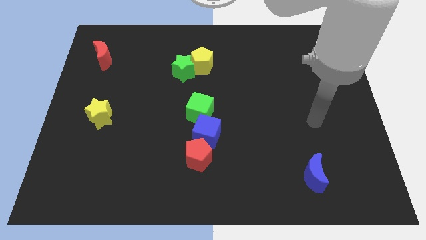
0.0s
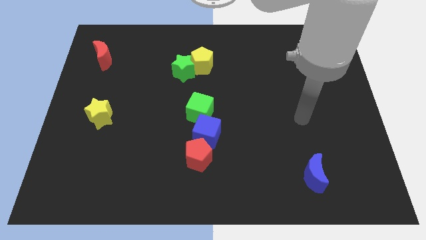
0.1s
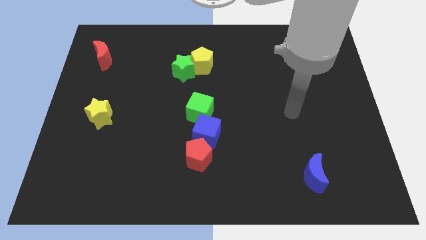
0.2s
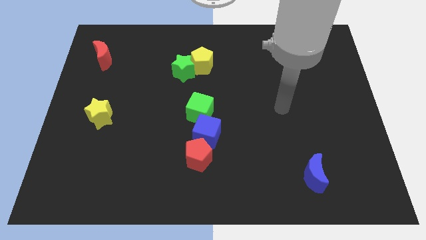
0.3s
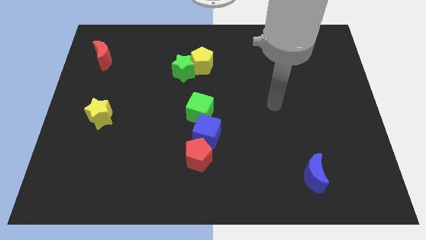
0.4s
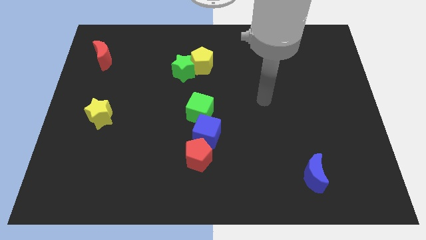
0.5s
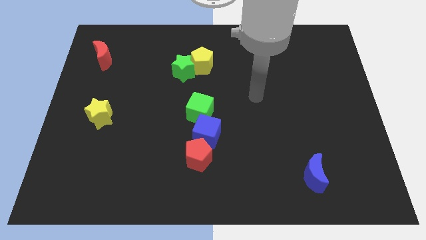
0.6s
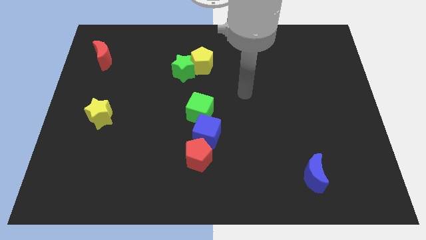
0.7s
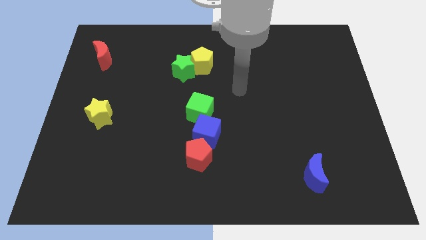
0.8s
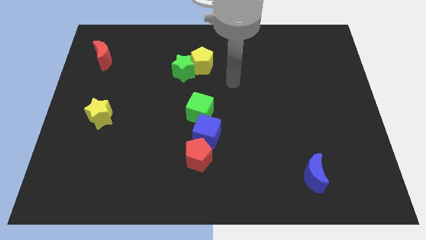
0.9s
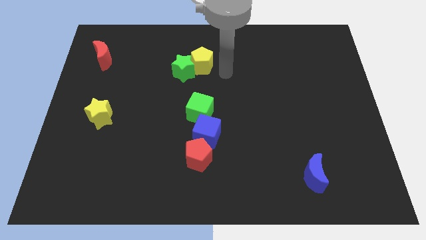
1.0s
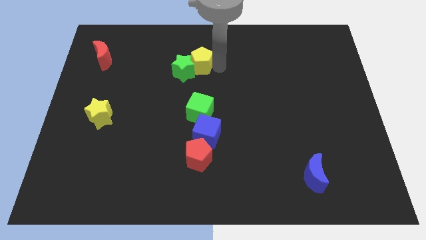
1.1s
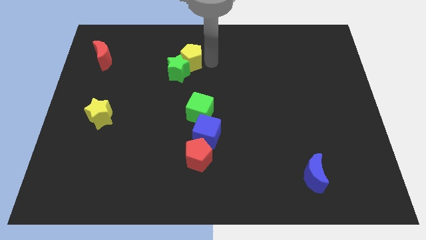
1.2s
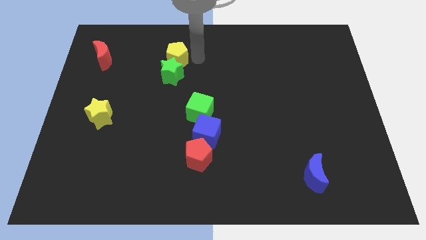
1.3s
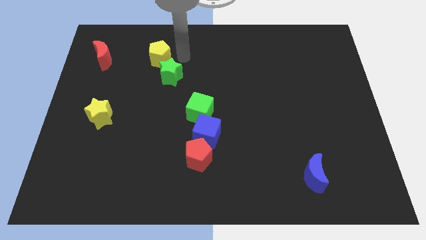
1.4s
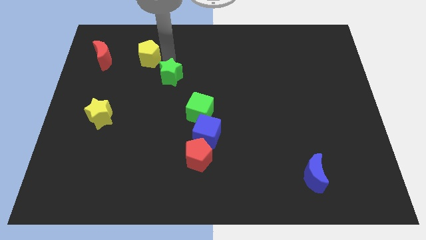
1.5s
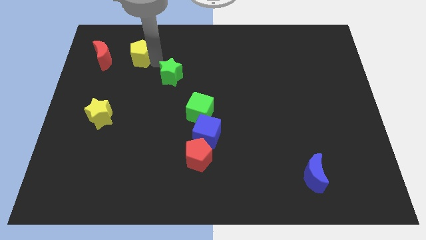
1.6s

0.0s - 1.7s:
separate the green star from the yellow pentagon

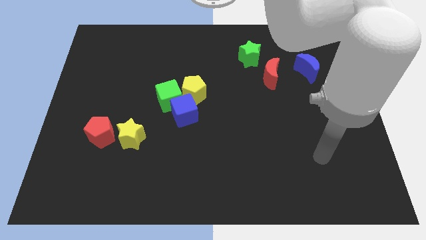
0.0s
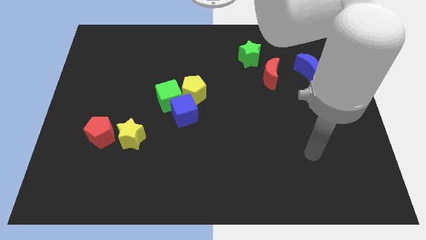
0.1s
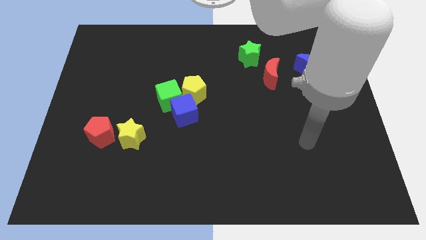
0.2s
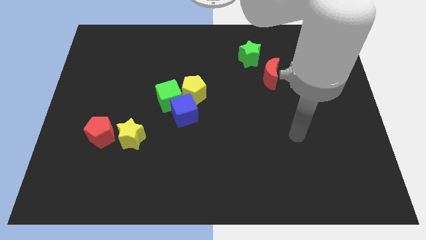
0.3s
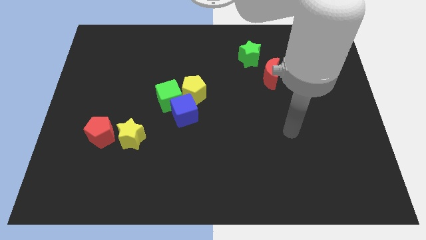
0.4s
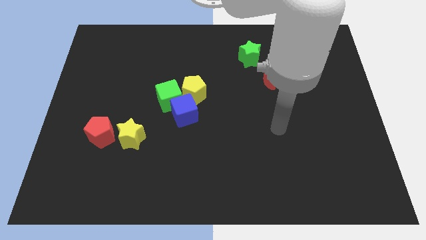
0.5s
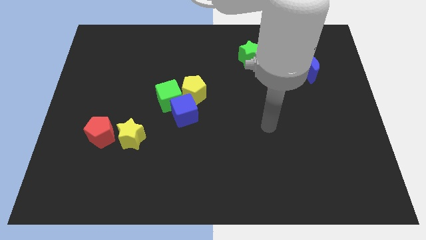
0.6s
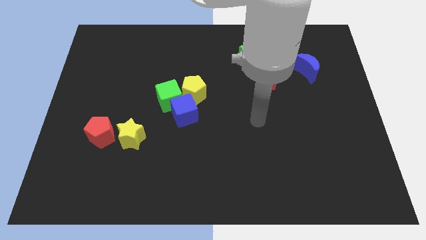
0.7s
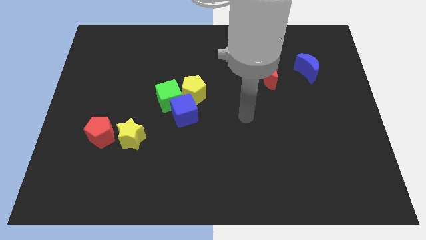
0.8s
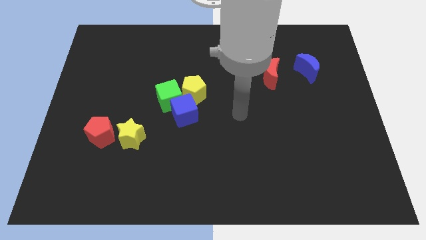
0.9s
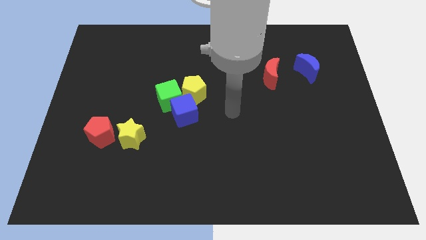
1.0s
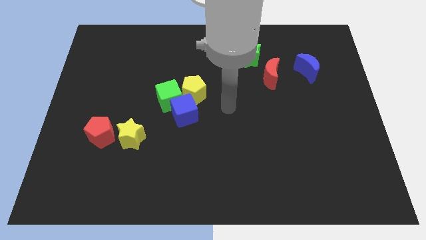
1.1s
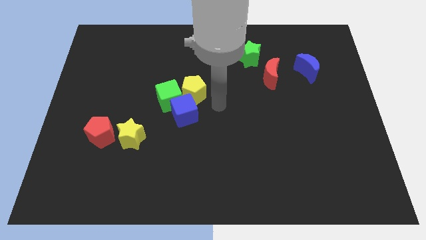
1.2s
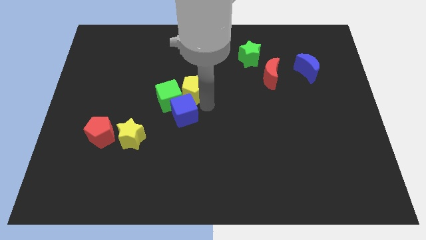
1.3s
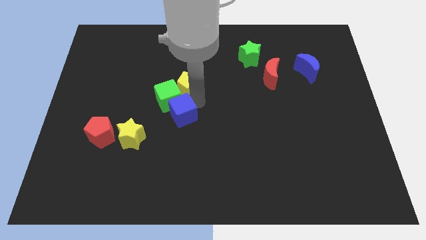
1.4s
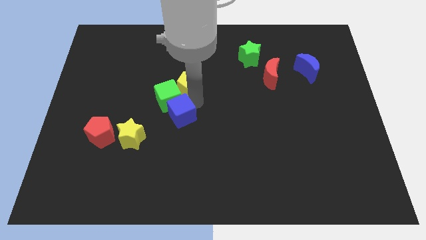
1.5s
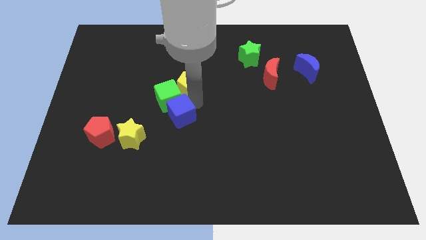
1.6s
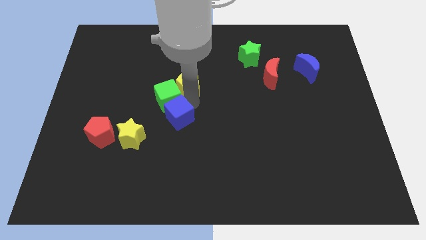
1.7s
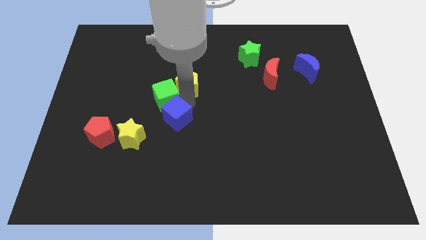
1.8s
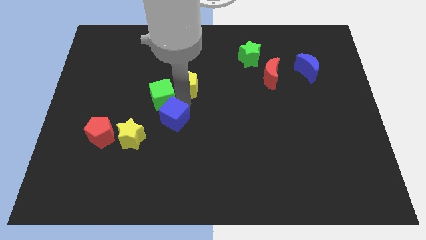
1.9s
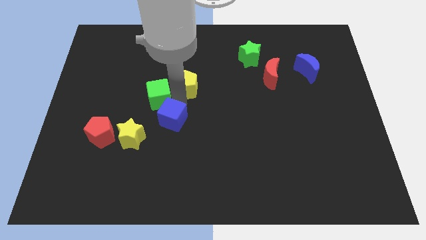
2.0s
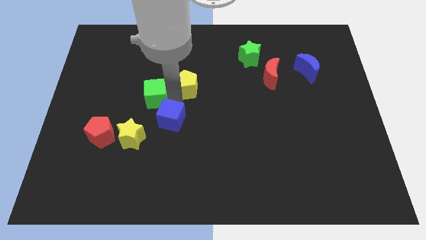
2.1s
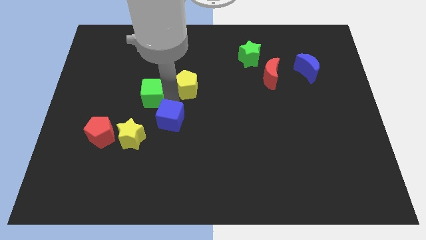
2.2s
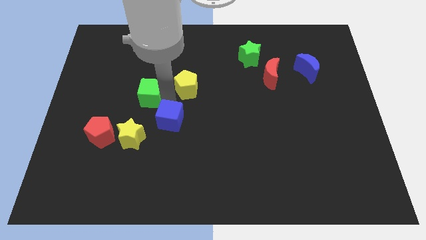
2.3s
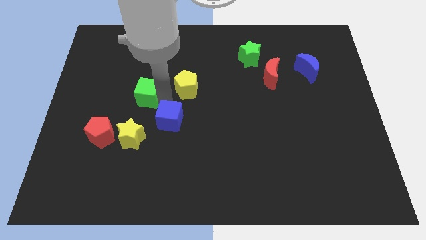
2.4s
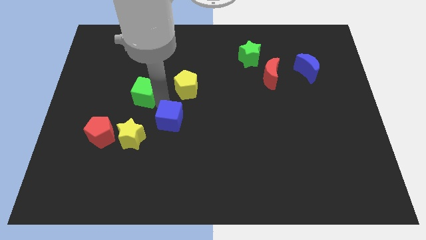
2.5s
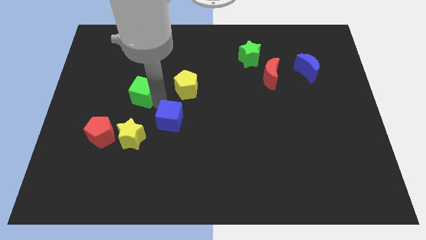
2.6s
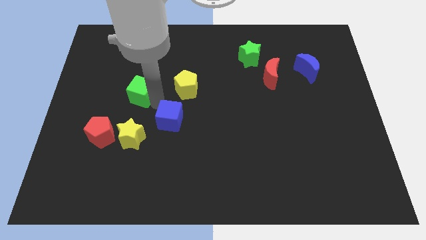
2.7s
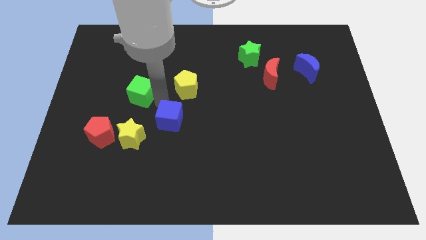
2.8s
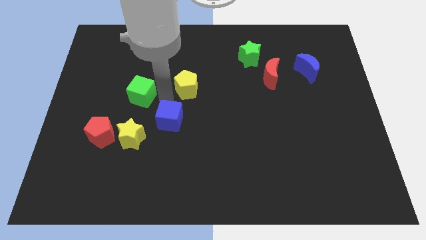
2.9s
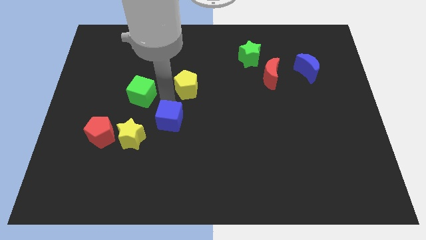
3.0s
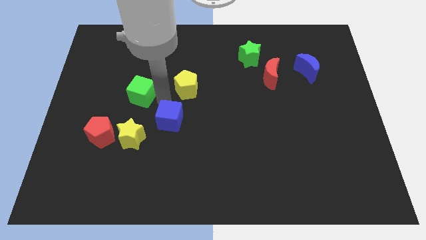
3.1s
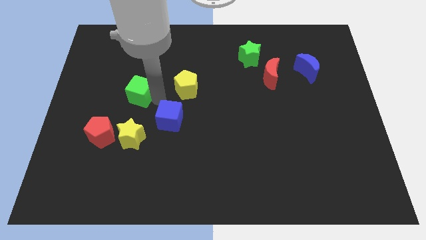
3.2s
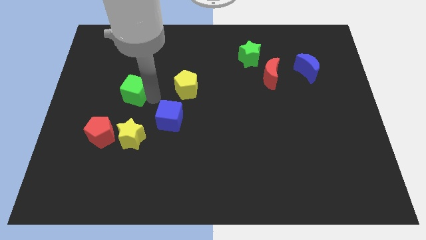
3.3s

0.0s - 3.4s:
separate the green cube from the blue cube and yellow pentagon

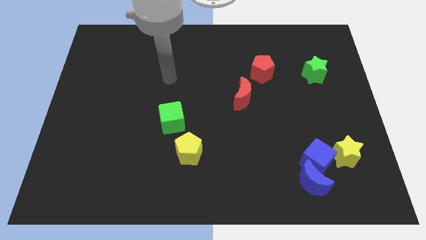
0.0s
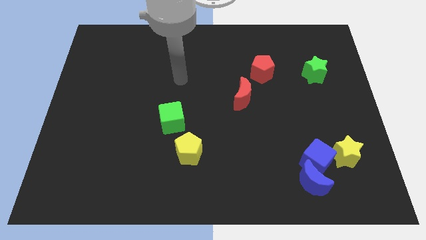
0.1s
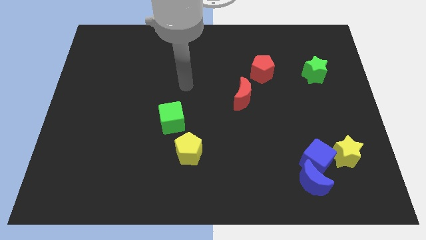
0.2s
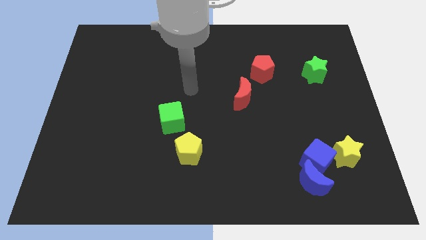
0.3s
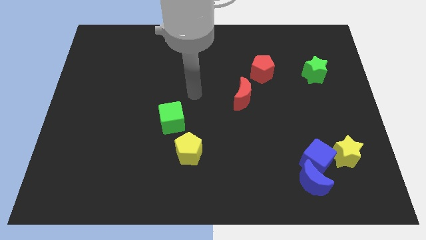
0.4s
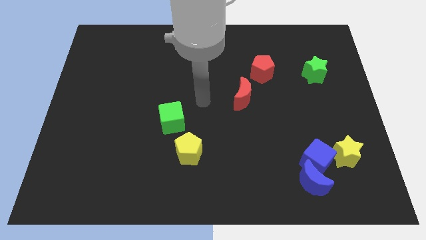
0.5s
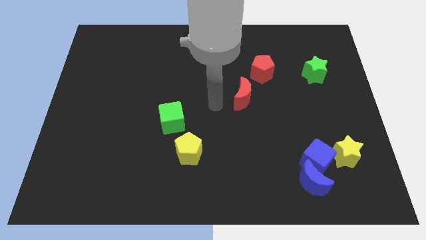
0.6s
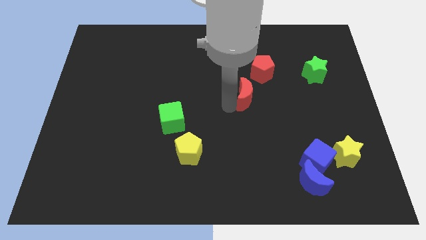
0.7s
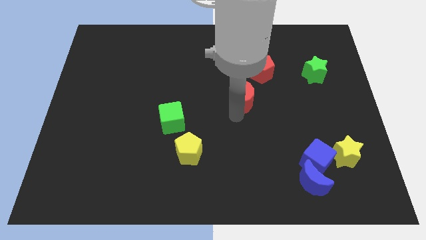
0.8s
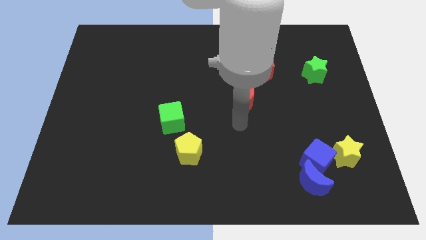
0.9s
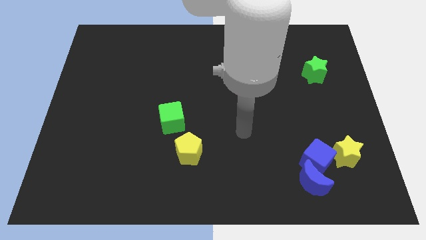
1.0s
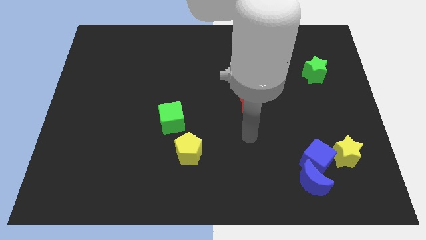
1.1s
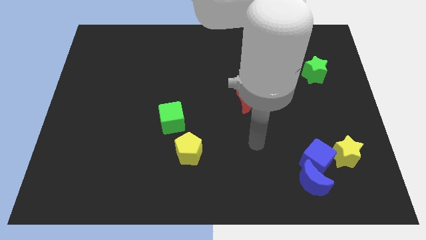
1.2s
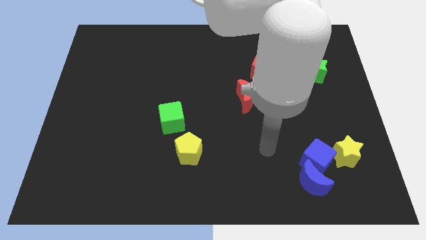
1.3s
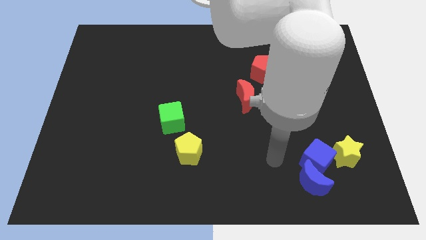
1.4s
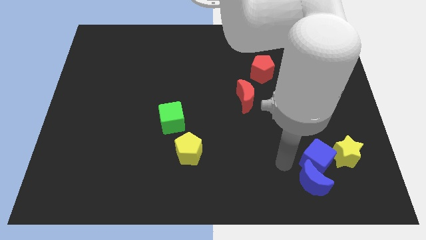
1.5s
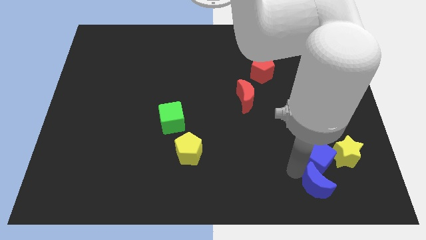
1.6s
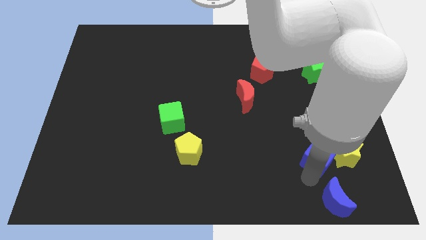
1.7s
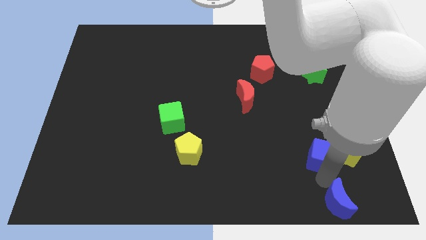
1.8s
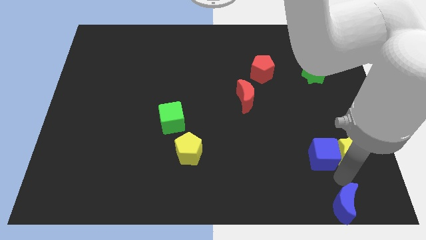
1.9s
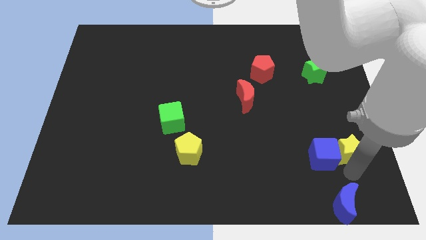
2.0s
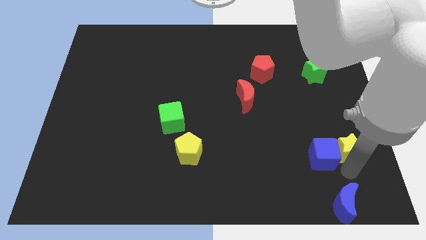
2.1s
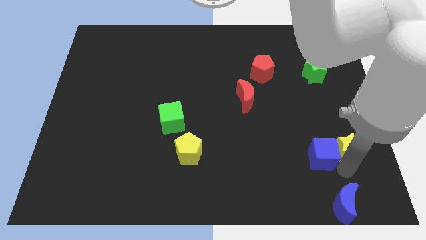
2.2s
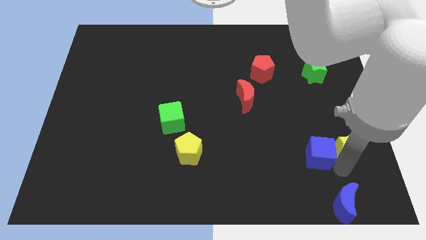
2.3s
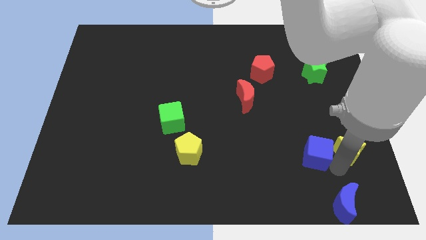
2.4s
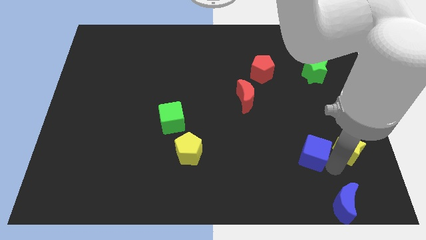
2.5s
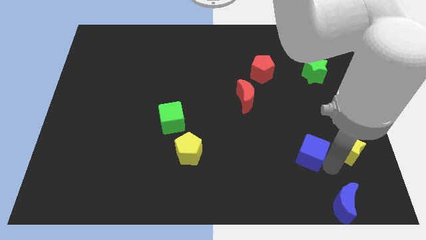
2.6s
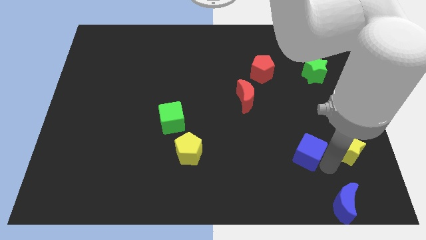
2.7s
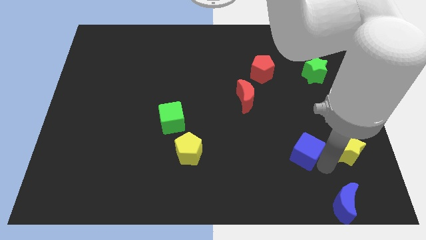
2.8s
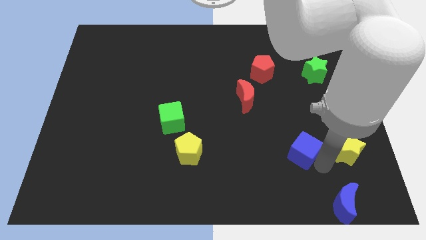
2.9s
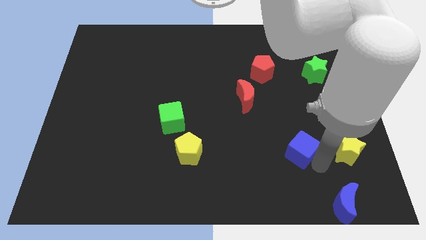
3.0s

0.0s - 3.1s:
pull the blue cube apart from the blue moon and yellow star

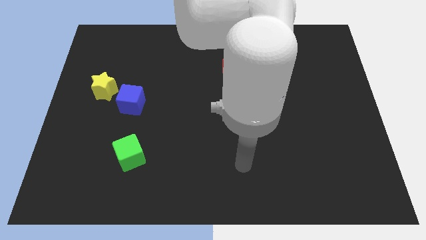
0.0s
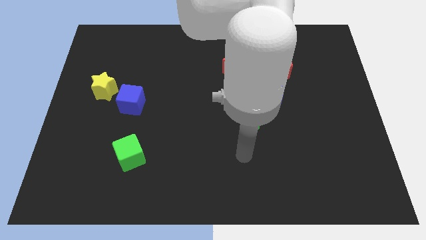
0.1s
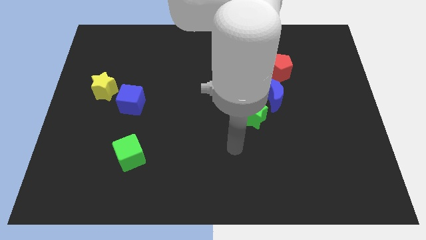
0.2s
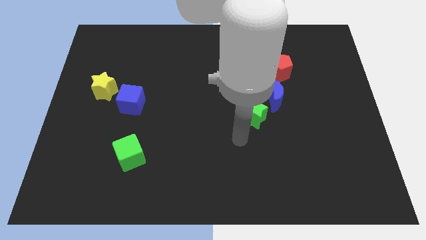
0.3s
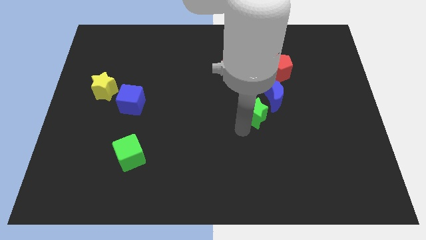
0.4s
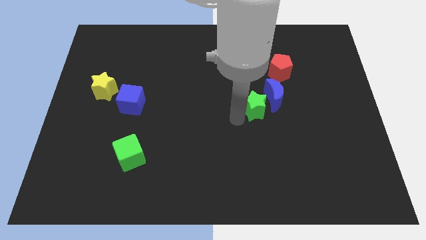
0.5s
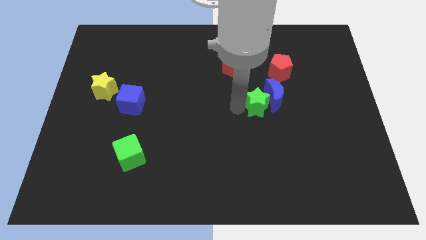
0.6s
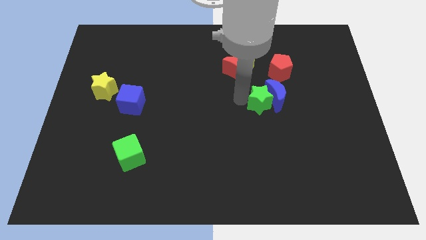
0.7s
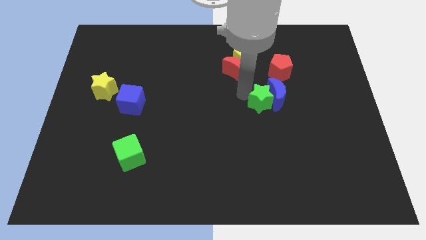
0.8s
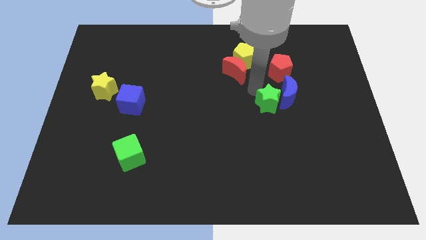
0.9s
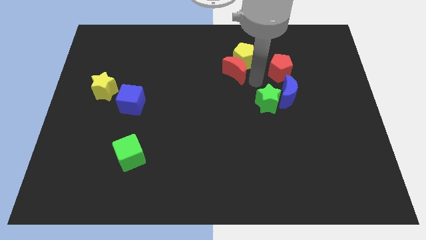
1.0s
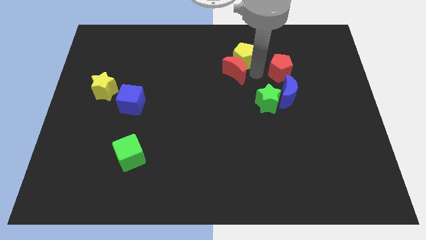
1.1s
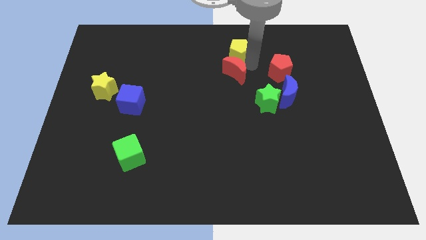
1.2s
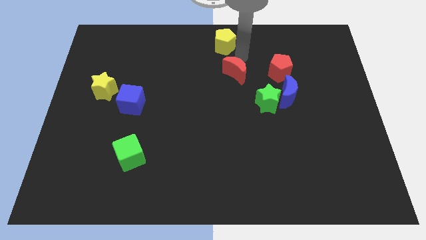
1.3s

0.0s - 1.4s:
move the red moon away from the yellow pentagon
